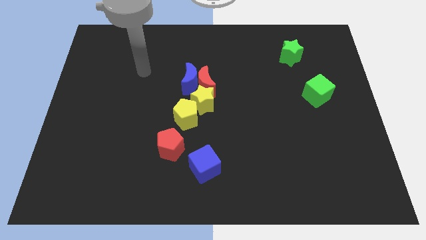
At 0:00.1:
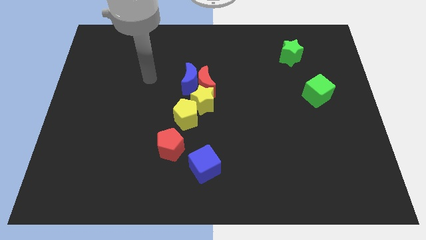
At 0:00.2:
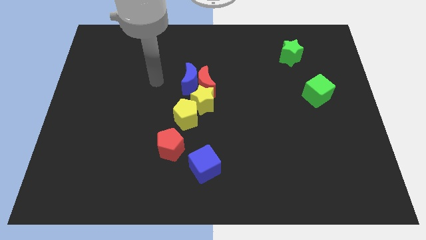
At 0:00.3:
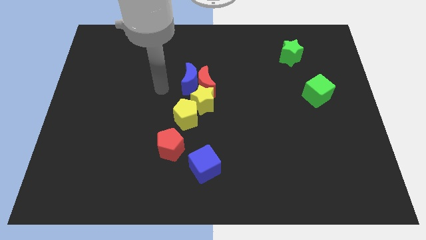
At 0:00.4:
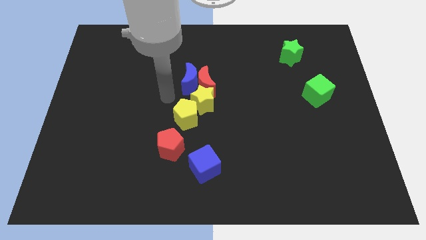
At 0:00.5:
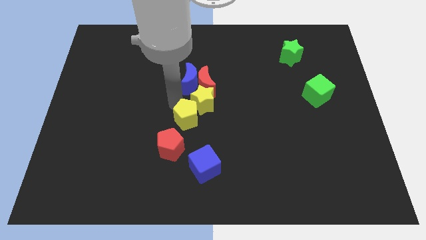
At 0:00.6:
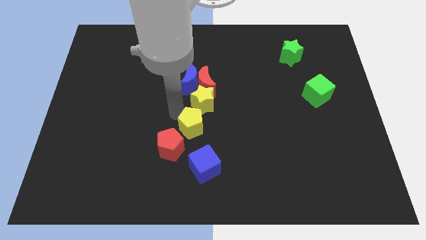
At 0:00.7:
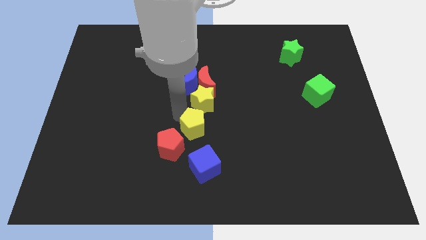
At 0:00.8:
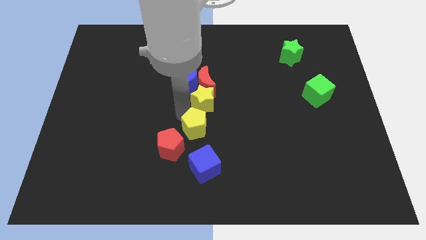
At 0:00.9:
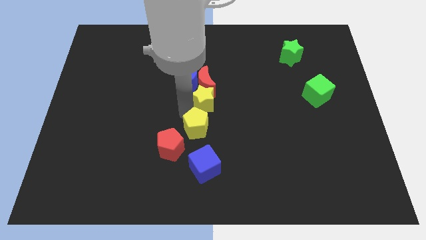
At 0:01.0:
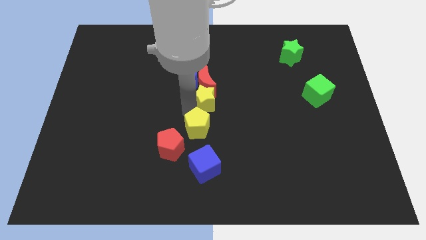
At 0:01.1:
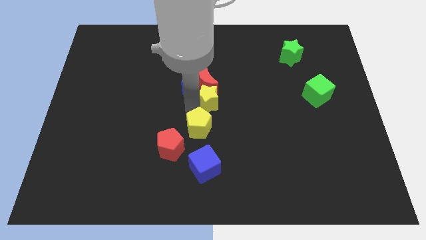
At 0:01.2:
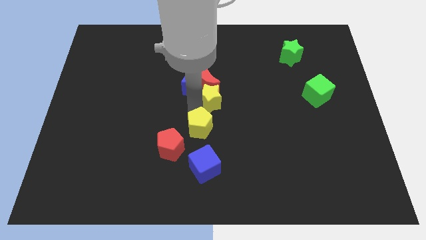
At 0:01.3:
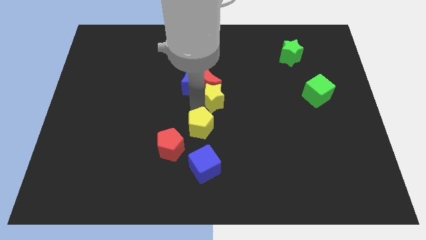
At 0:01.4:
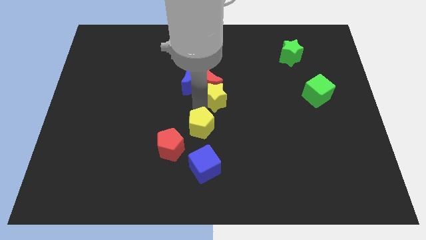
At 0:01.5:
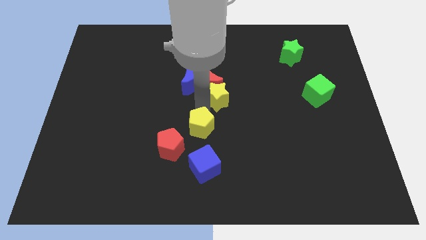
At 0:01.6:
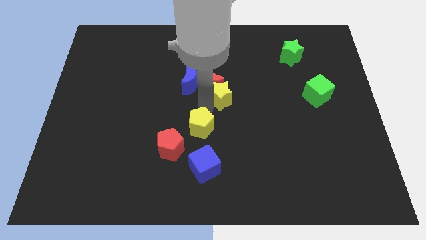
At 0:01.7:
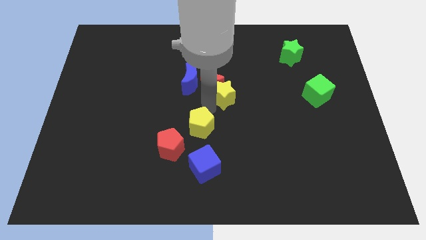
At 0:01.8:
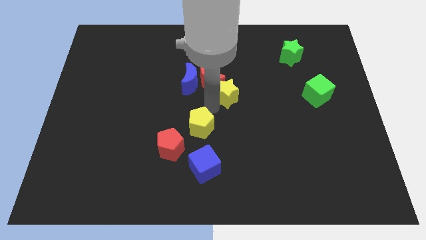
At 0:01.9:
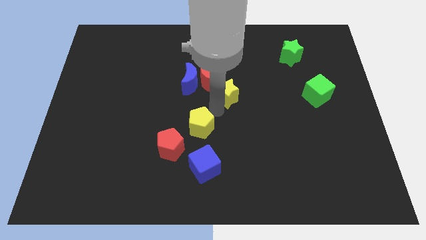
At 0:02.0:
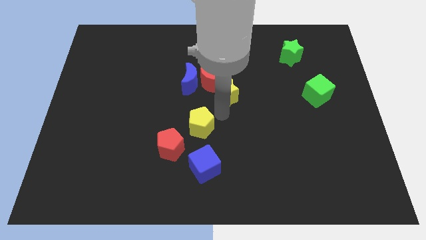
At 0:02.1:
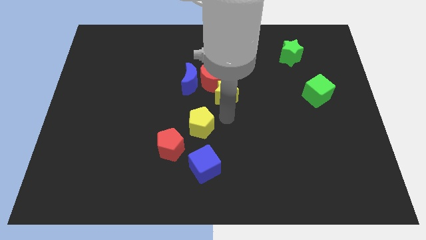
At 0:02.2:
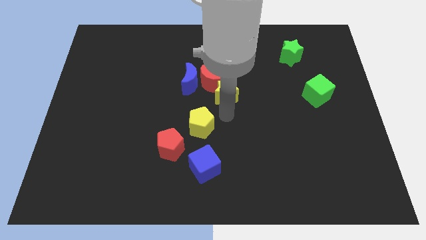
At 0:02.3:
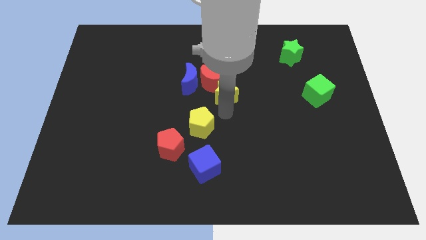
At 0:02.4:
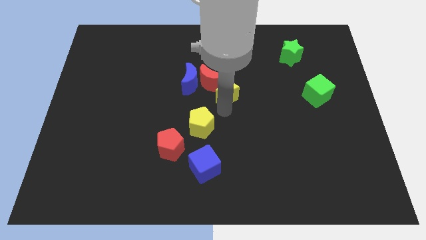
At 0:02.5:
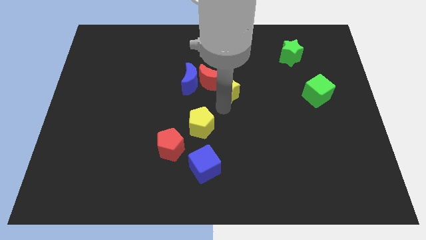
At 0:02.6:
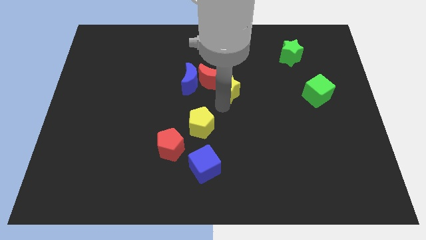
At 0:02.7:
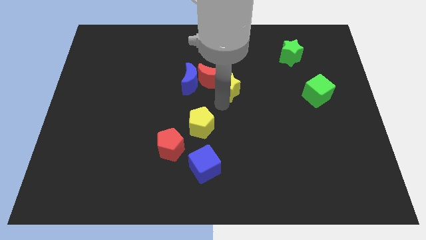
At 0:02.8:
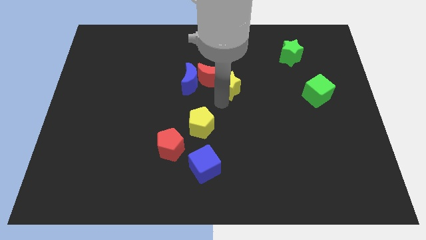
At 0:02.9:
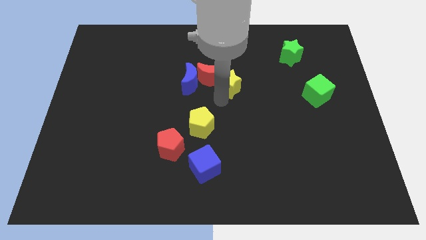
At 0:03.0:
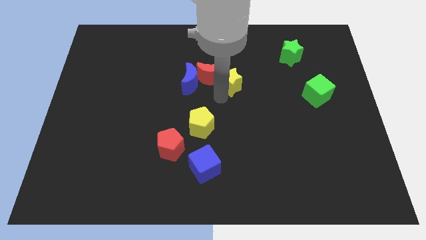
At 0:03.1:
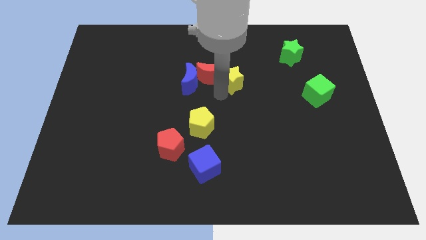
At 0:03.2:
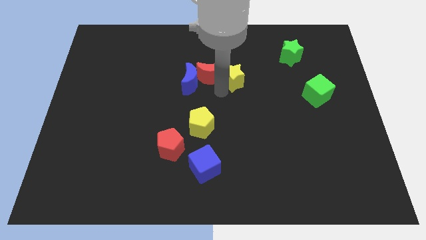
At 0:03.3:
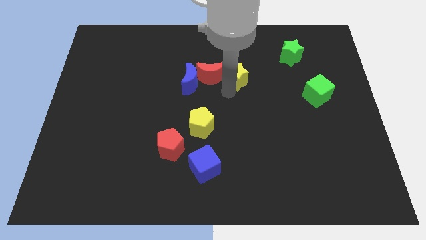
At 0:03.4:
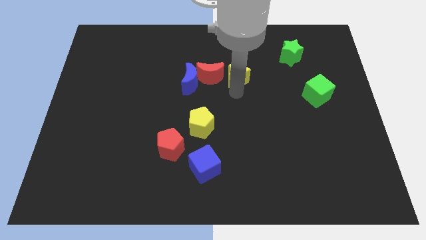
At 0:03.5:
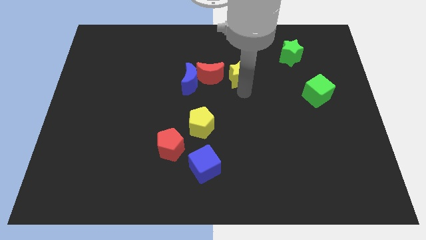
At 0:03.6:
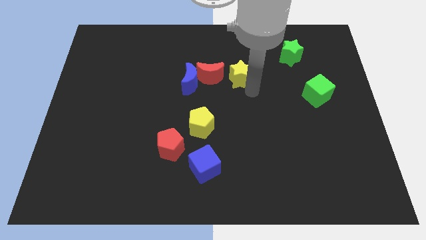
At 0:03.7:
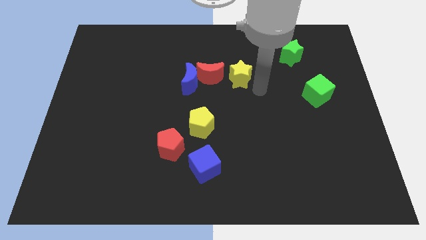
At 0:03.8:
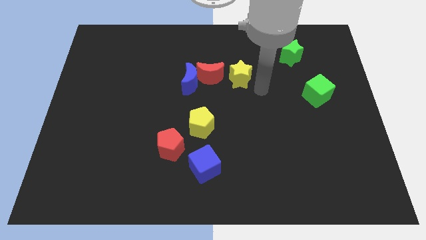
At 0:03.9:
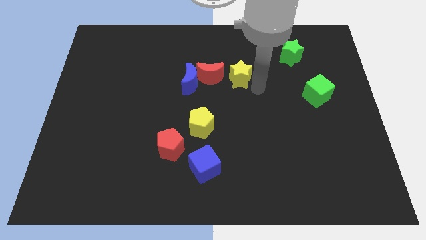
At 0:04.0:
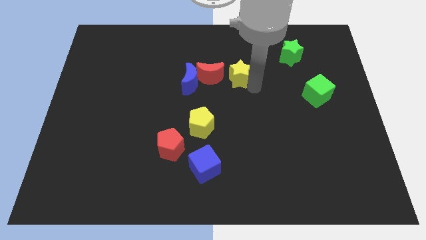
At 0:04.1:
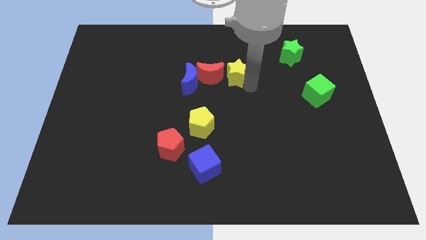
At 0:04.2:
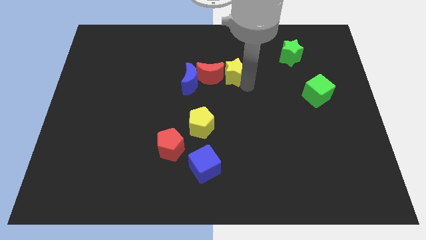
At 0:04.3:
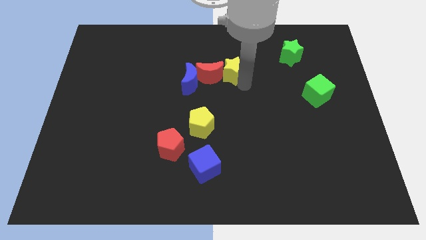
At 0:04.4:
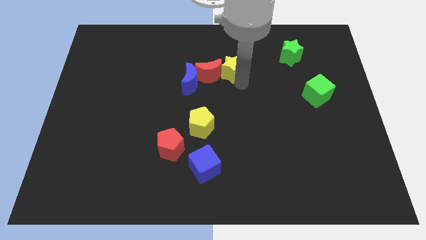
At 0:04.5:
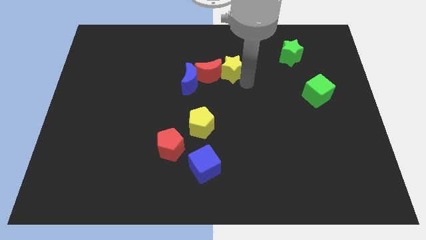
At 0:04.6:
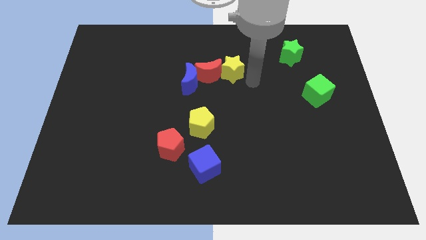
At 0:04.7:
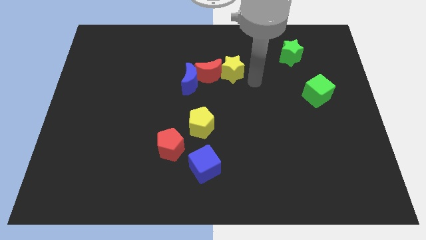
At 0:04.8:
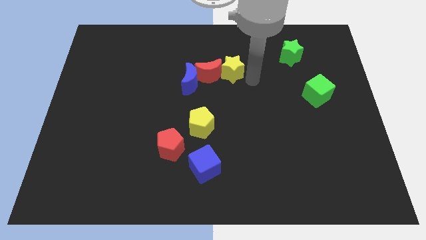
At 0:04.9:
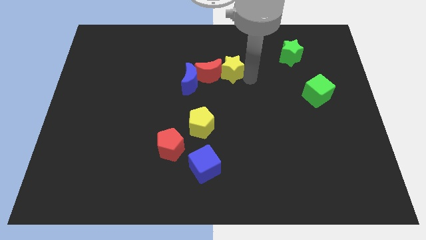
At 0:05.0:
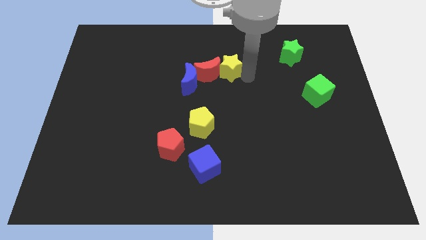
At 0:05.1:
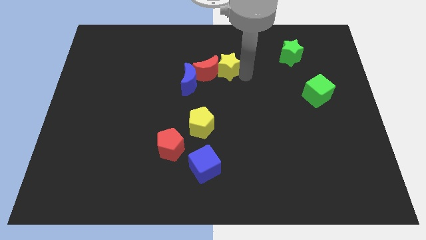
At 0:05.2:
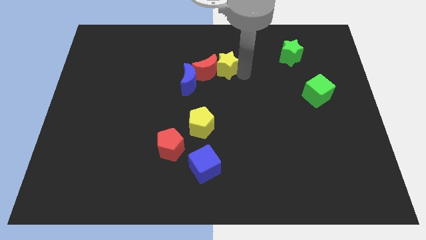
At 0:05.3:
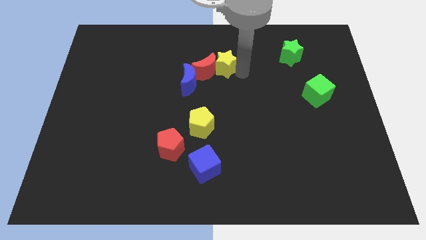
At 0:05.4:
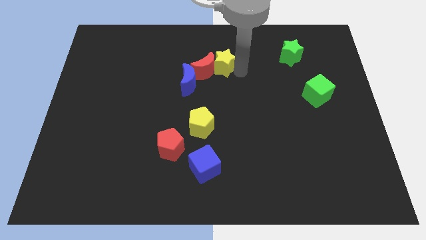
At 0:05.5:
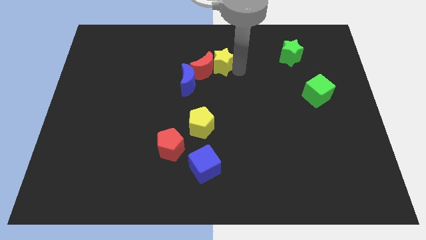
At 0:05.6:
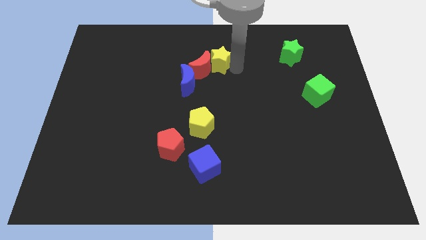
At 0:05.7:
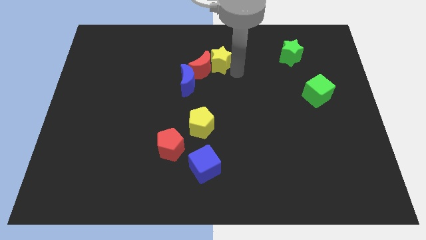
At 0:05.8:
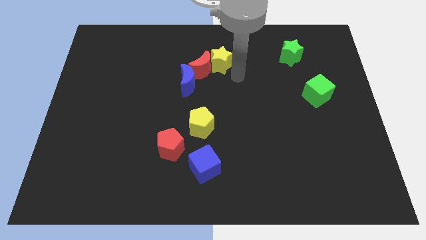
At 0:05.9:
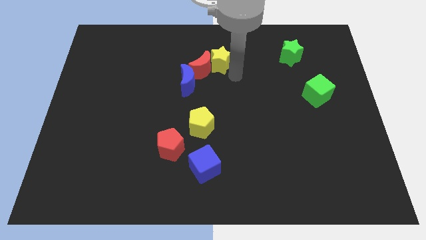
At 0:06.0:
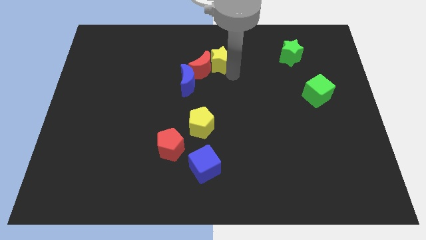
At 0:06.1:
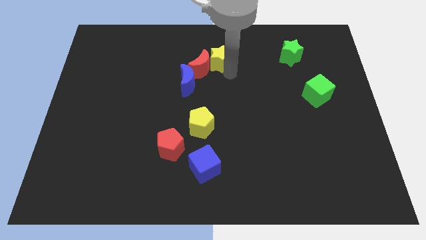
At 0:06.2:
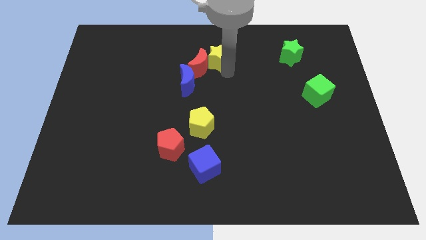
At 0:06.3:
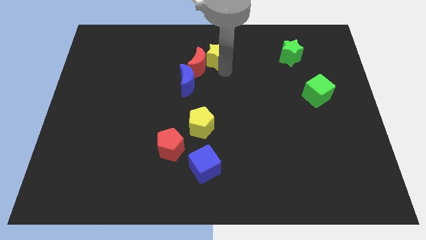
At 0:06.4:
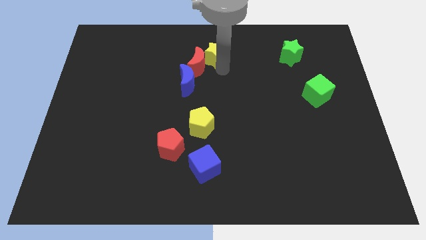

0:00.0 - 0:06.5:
push the yellow star to the top side
